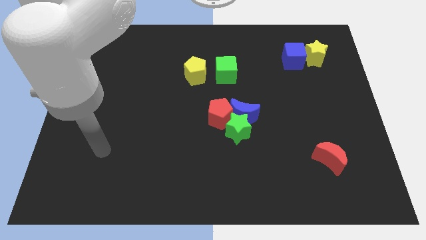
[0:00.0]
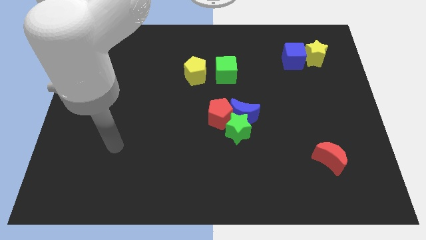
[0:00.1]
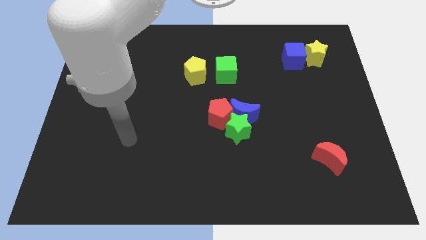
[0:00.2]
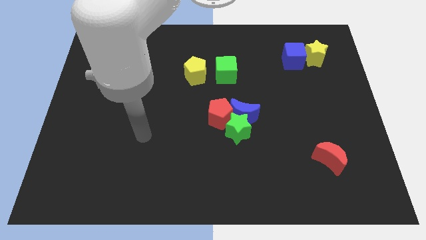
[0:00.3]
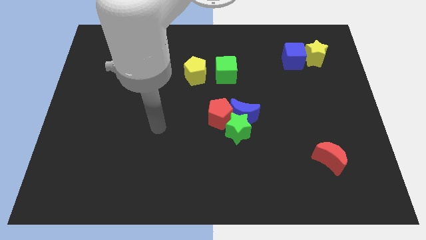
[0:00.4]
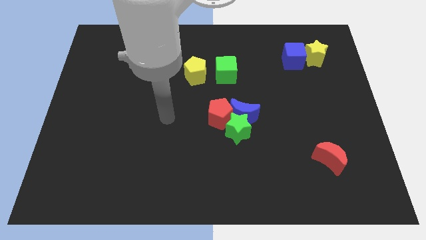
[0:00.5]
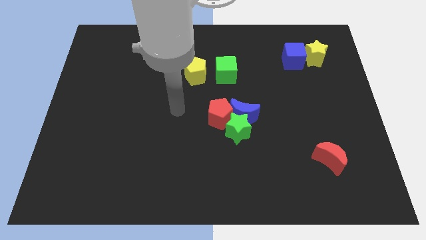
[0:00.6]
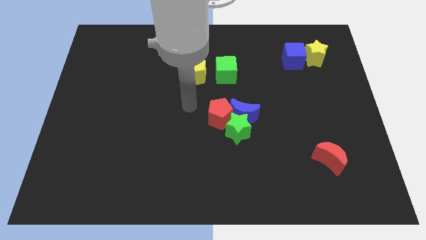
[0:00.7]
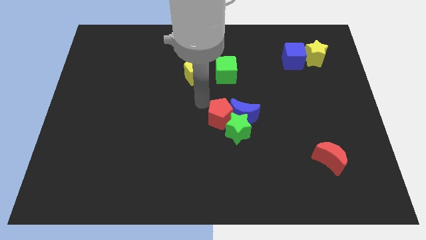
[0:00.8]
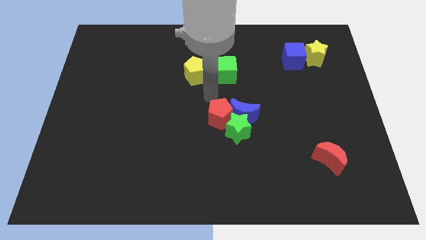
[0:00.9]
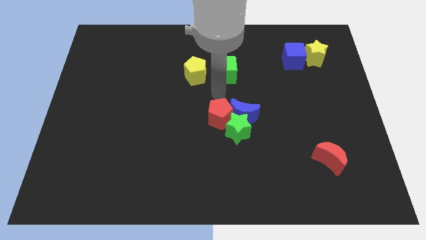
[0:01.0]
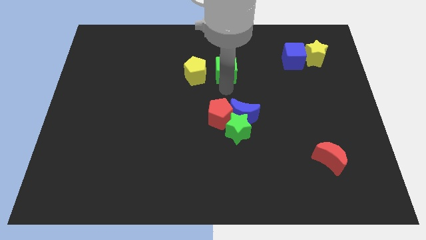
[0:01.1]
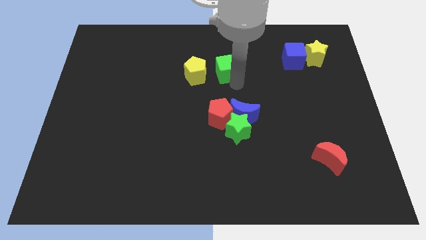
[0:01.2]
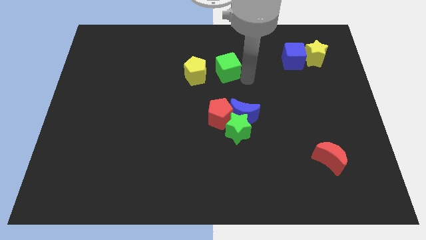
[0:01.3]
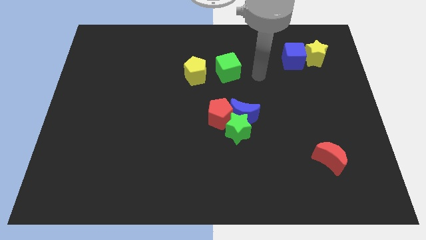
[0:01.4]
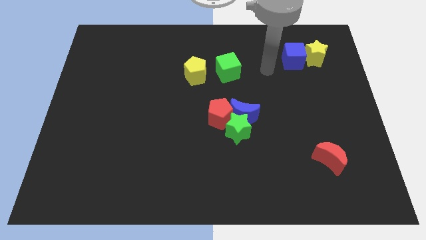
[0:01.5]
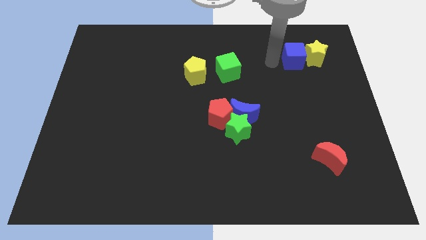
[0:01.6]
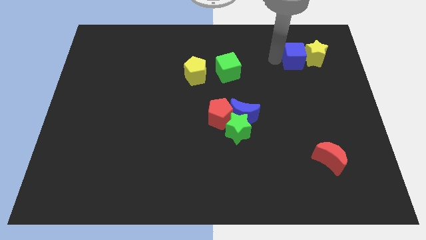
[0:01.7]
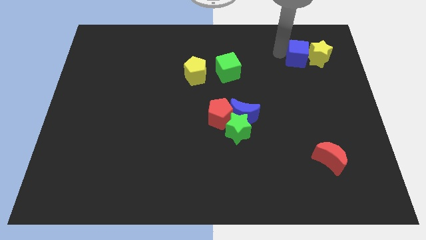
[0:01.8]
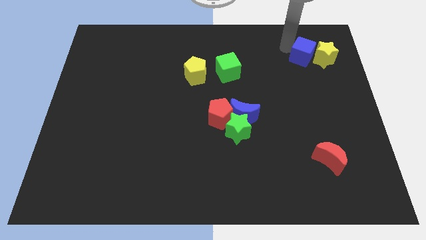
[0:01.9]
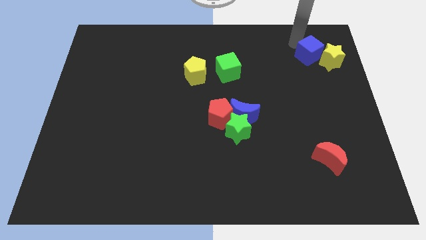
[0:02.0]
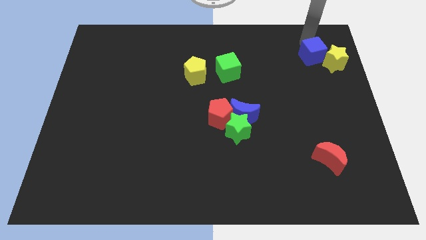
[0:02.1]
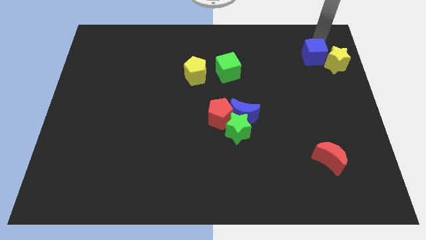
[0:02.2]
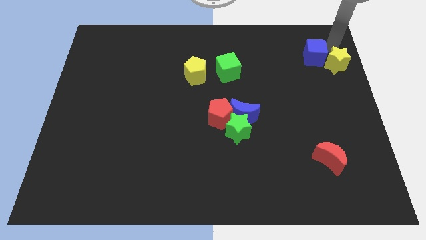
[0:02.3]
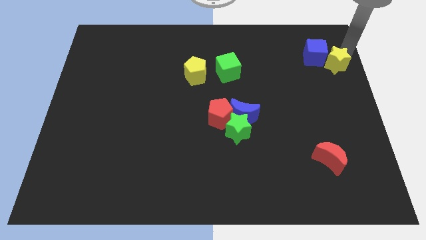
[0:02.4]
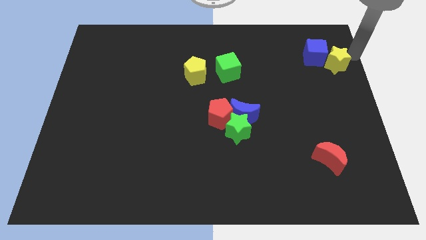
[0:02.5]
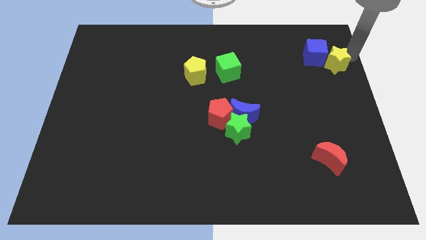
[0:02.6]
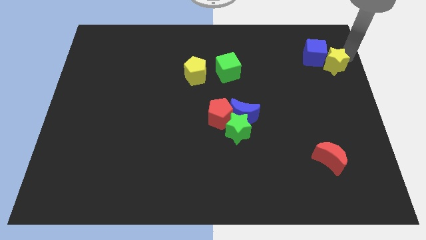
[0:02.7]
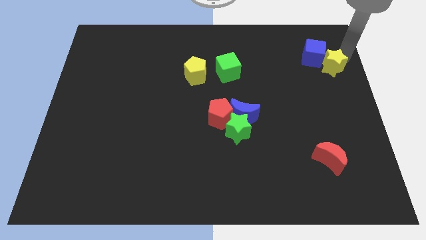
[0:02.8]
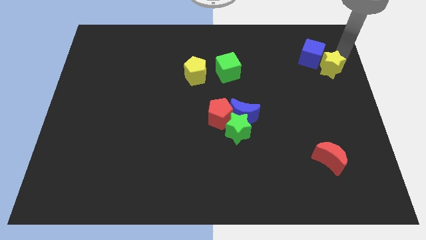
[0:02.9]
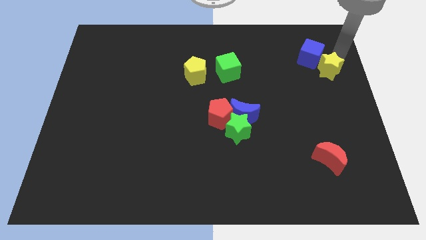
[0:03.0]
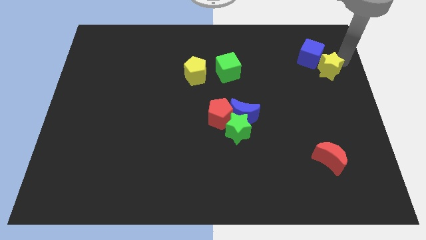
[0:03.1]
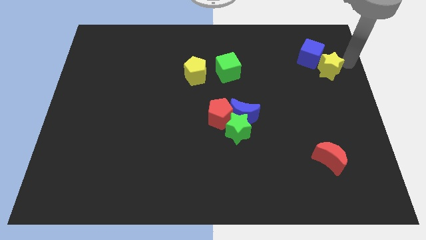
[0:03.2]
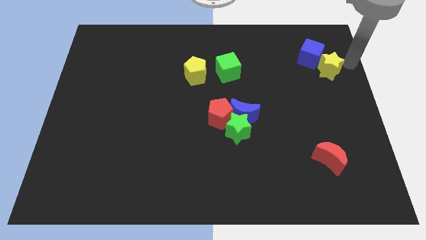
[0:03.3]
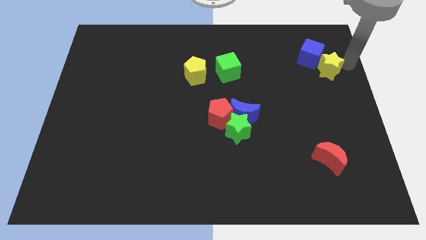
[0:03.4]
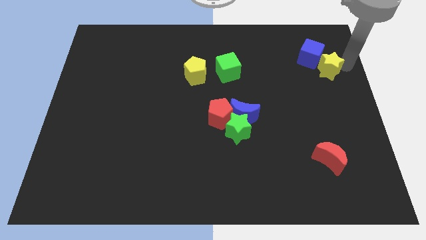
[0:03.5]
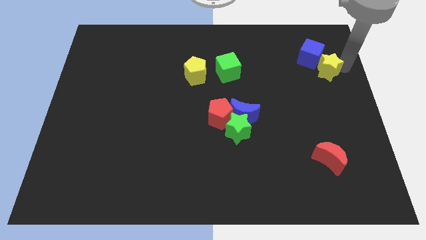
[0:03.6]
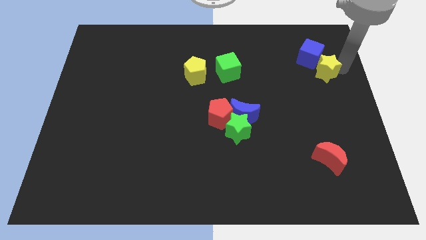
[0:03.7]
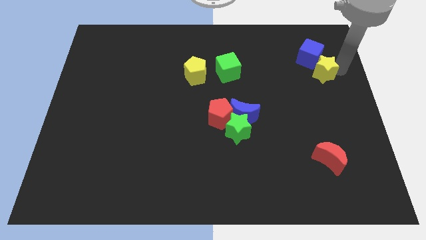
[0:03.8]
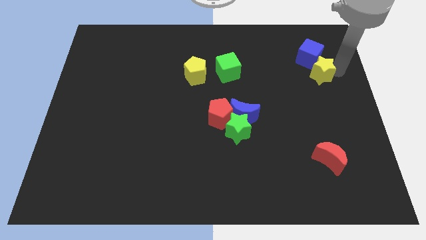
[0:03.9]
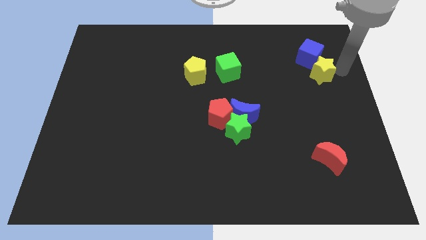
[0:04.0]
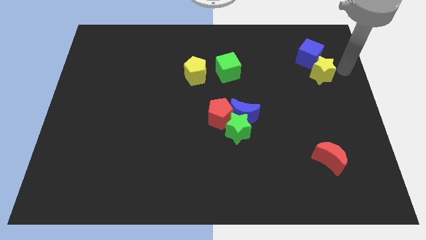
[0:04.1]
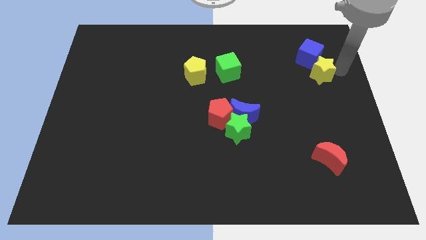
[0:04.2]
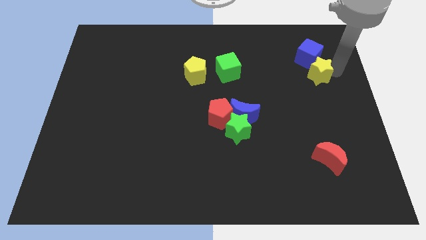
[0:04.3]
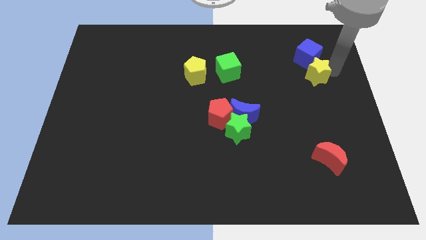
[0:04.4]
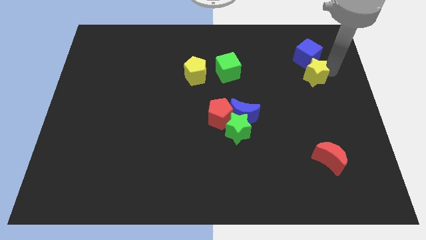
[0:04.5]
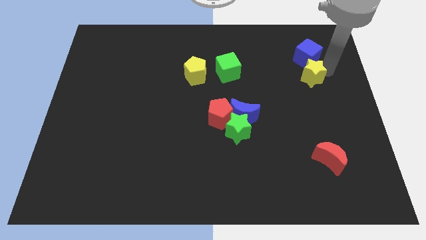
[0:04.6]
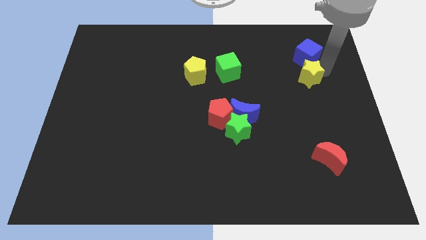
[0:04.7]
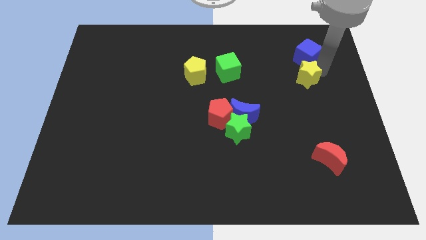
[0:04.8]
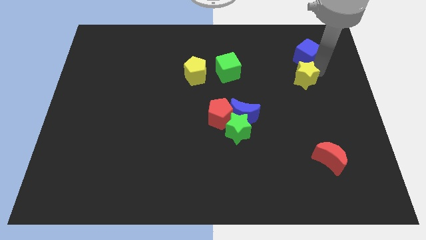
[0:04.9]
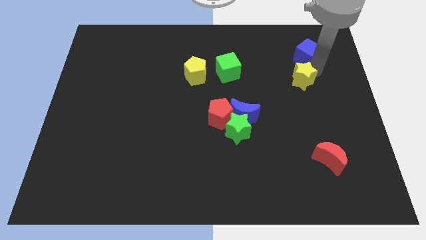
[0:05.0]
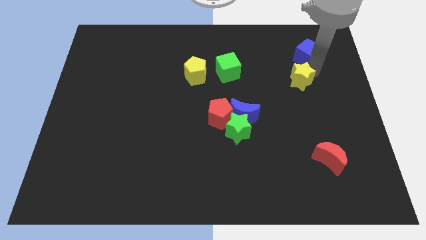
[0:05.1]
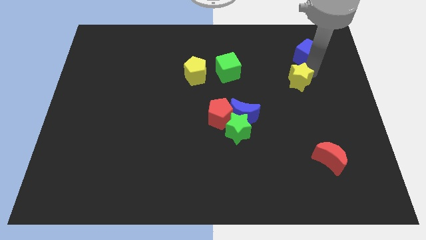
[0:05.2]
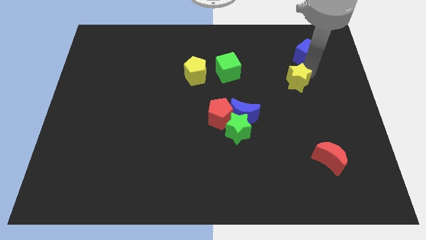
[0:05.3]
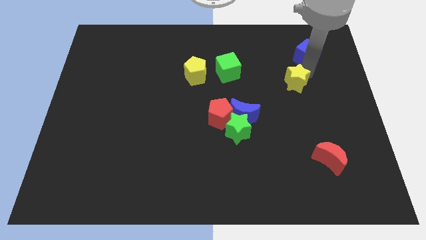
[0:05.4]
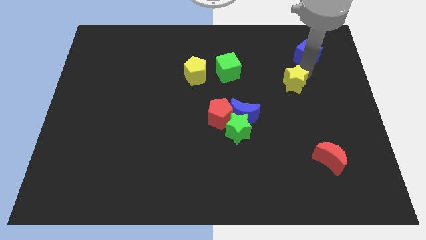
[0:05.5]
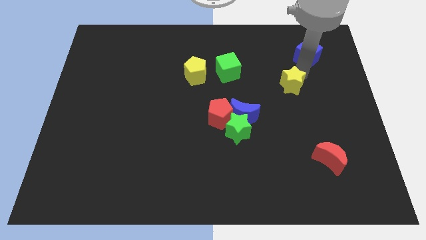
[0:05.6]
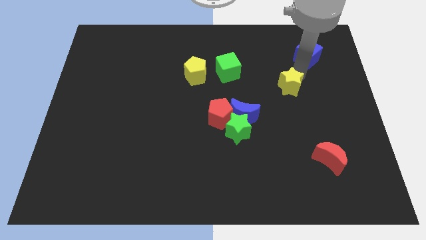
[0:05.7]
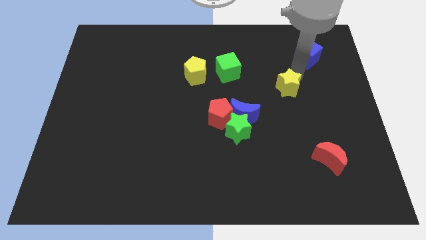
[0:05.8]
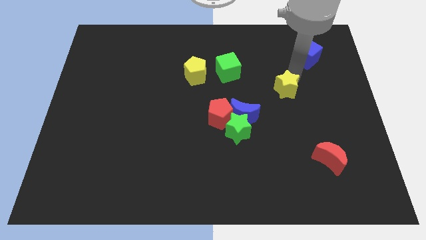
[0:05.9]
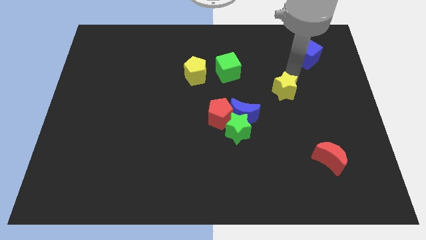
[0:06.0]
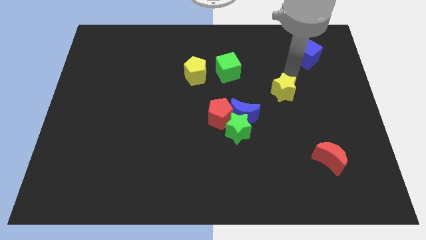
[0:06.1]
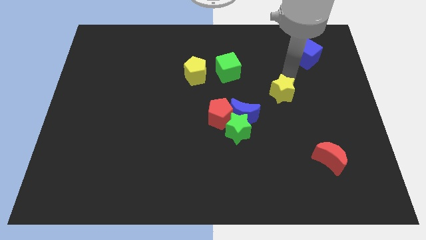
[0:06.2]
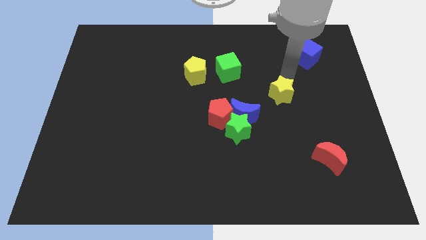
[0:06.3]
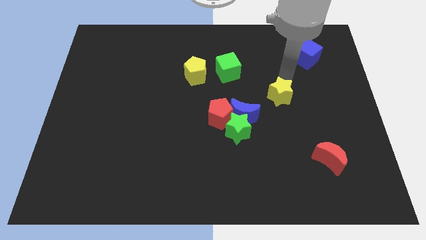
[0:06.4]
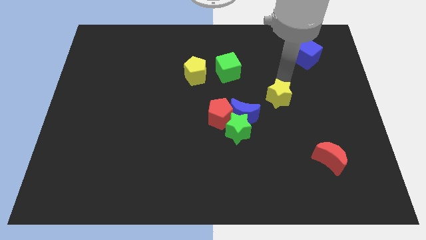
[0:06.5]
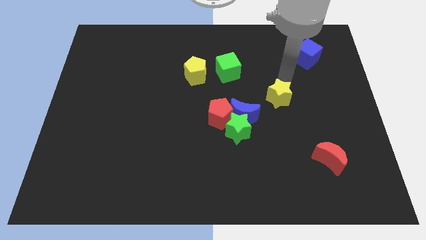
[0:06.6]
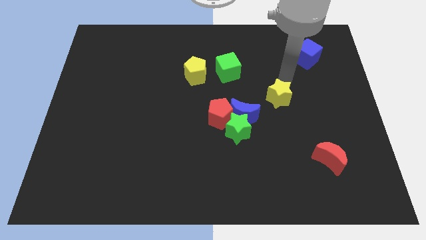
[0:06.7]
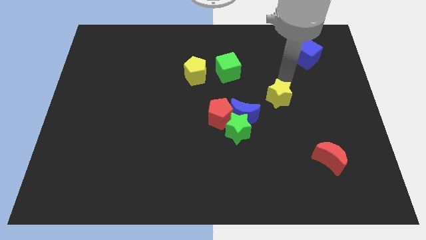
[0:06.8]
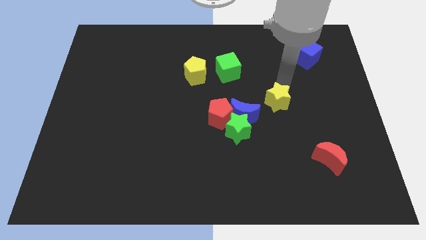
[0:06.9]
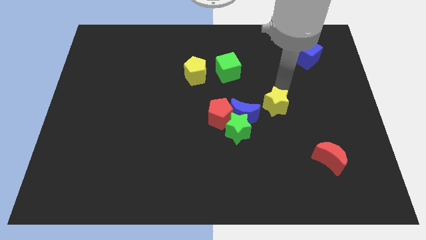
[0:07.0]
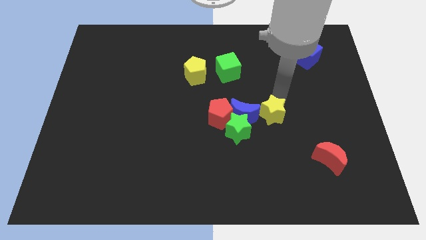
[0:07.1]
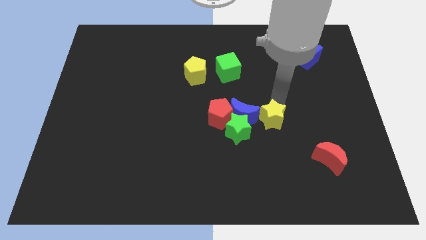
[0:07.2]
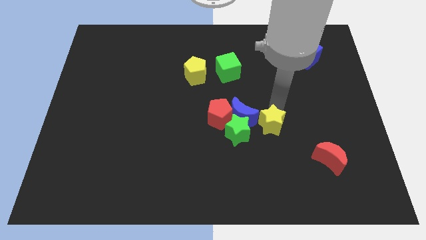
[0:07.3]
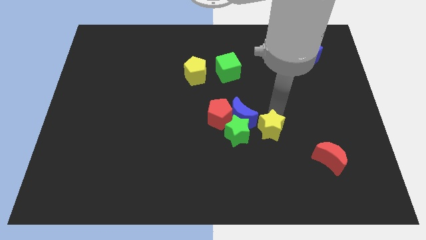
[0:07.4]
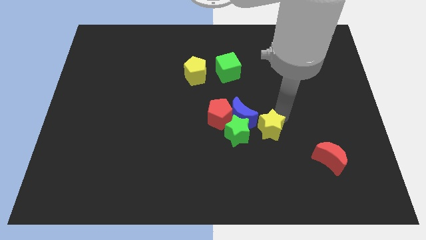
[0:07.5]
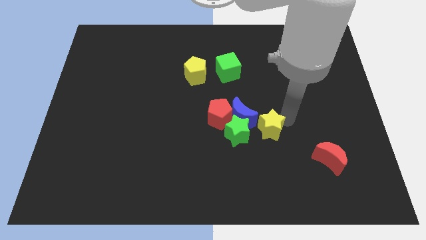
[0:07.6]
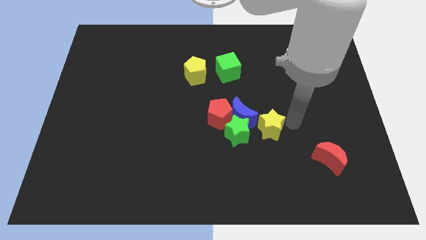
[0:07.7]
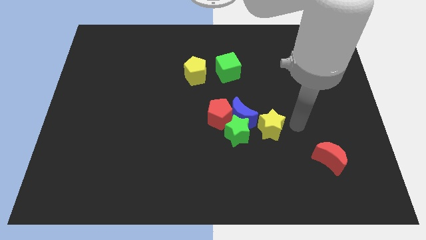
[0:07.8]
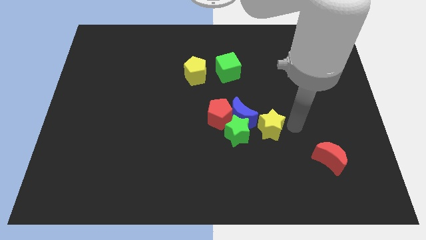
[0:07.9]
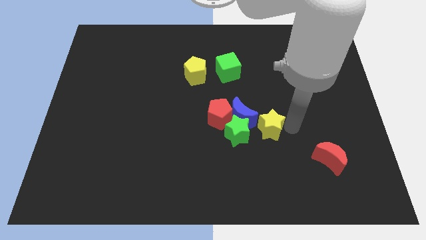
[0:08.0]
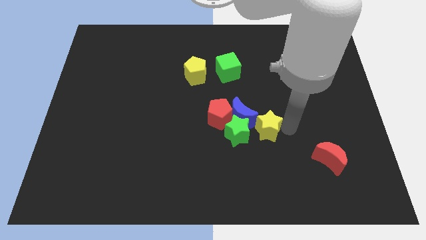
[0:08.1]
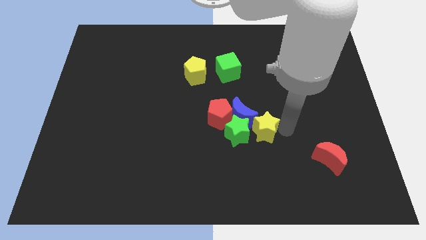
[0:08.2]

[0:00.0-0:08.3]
push the yellow star towards the green star
